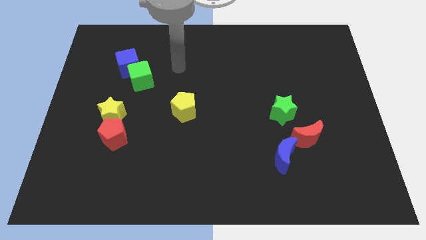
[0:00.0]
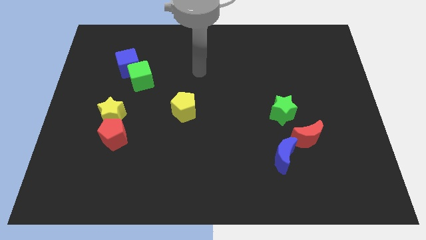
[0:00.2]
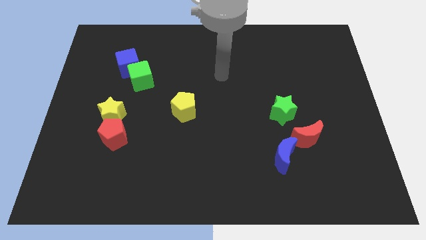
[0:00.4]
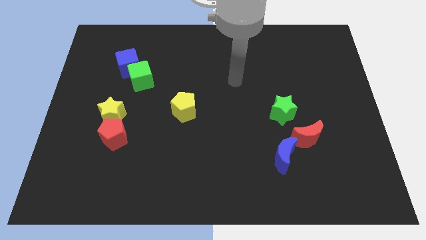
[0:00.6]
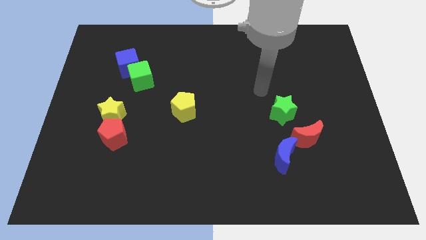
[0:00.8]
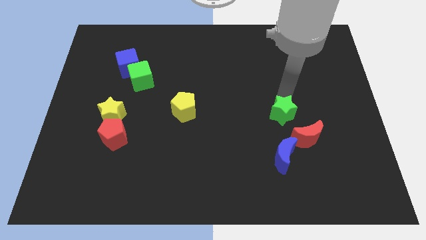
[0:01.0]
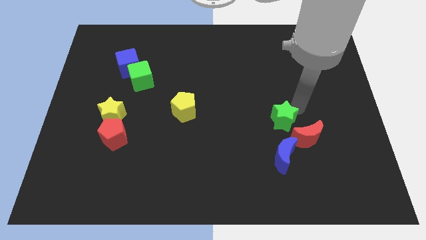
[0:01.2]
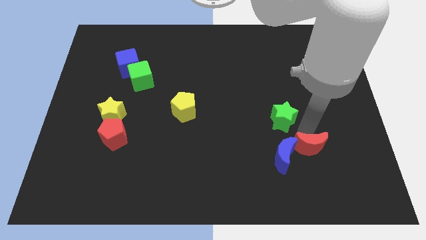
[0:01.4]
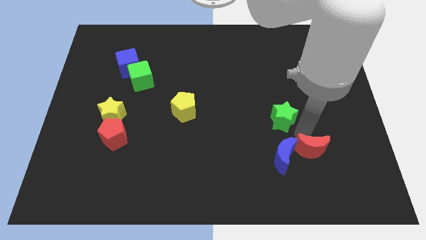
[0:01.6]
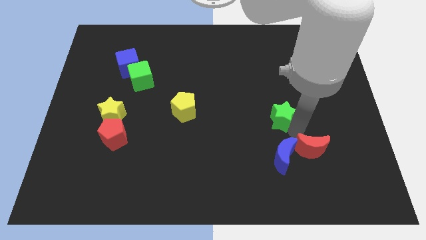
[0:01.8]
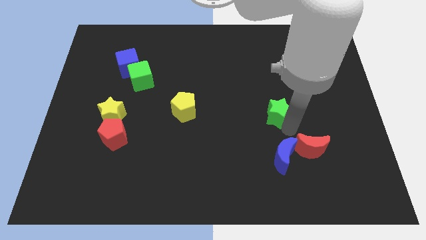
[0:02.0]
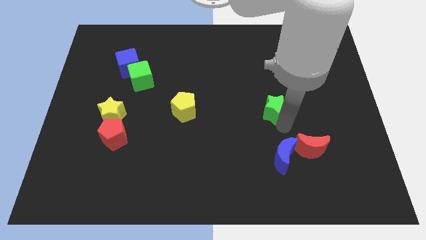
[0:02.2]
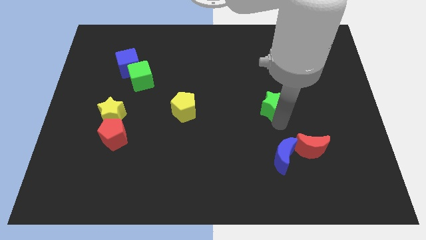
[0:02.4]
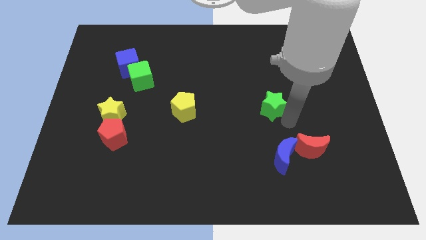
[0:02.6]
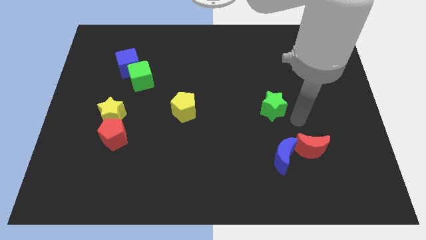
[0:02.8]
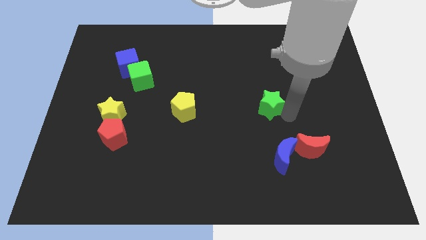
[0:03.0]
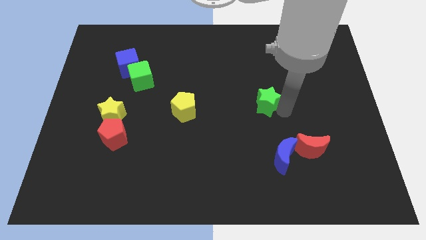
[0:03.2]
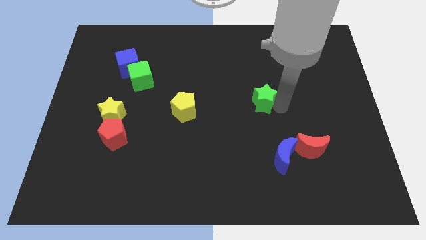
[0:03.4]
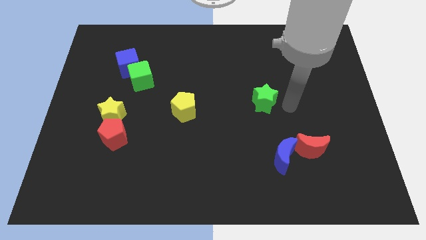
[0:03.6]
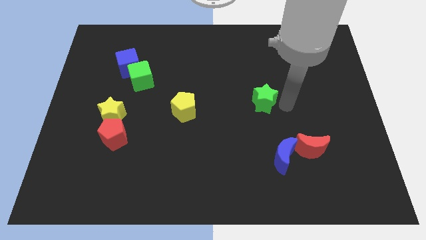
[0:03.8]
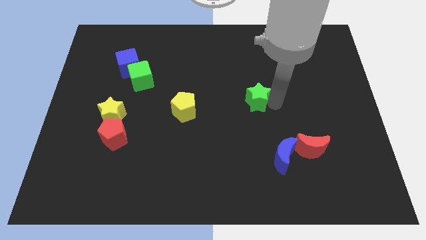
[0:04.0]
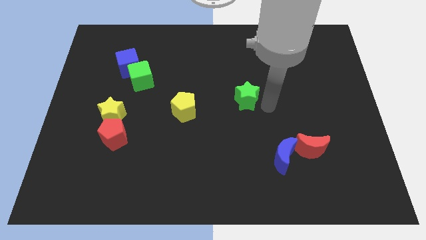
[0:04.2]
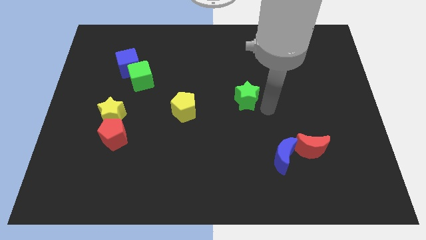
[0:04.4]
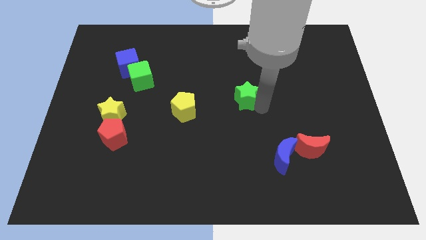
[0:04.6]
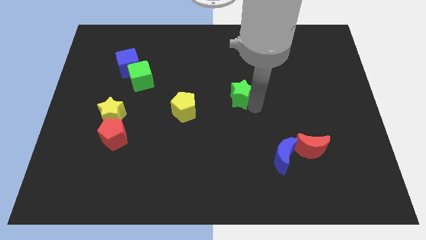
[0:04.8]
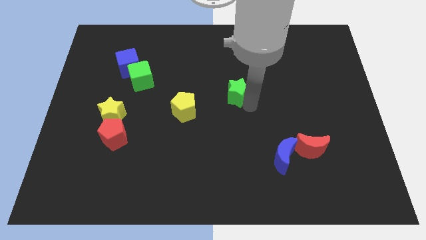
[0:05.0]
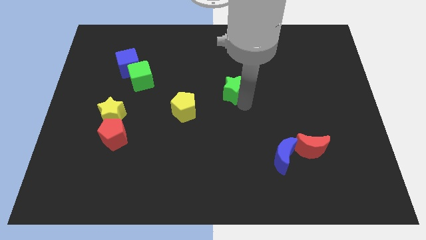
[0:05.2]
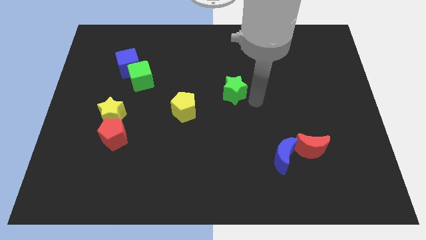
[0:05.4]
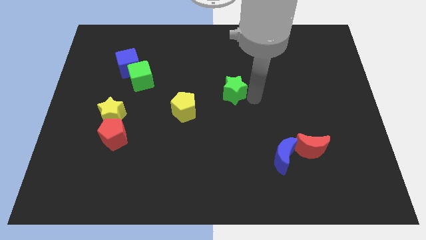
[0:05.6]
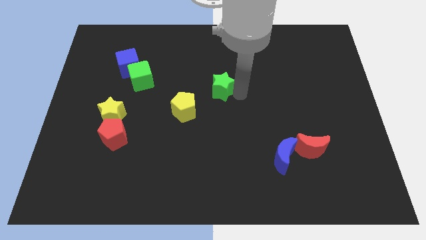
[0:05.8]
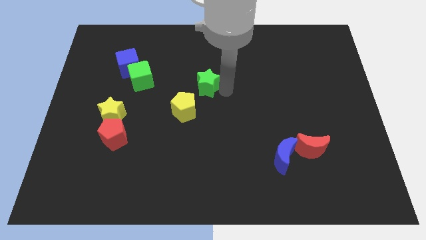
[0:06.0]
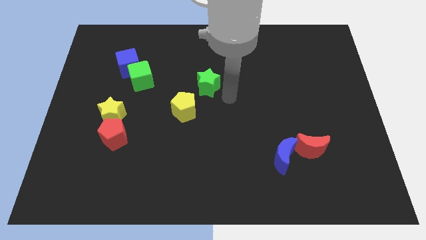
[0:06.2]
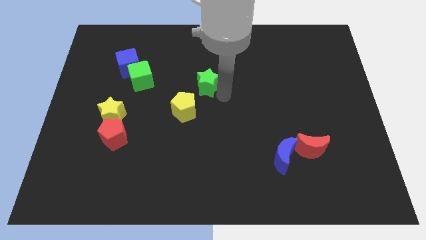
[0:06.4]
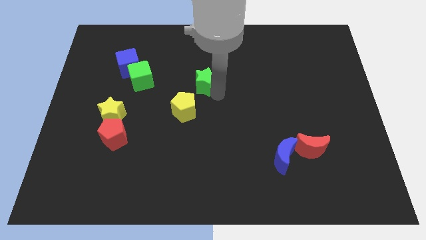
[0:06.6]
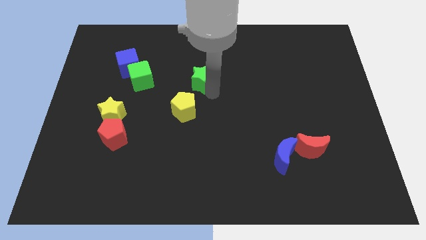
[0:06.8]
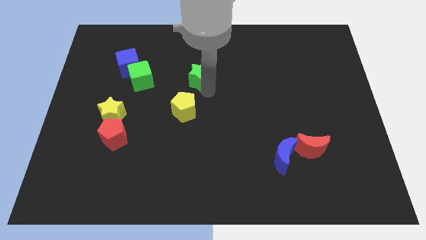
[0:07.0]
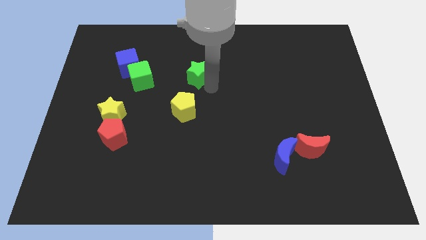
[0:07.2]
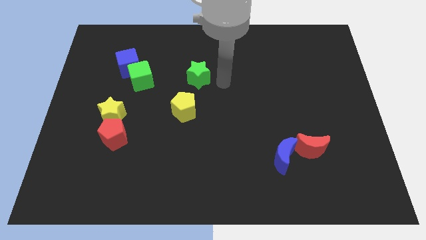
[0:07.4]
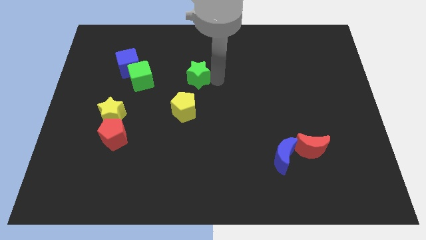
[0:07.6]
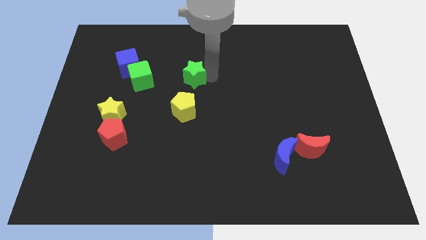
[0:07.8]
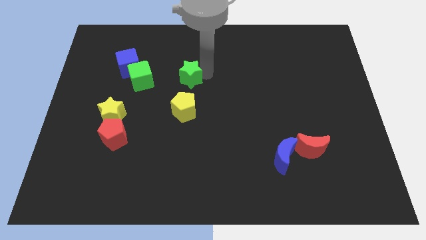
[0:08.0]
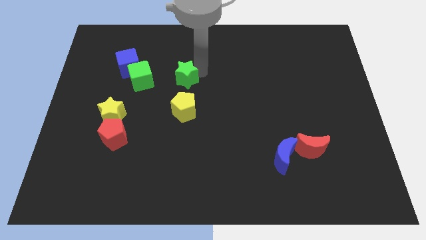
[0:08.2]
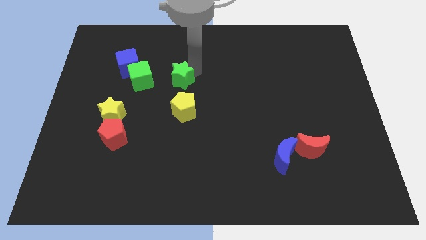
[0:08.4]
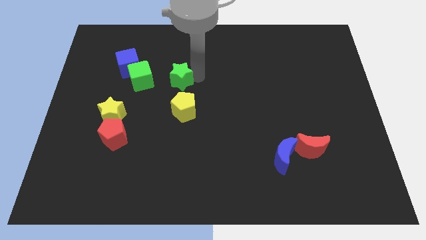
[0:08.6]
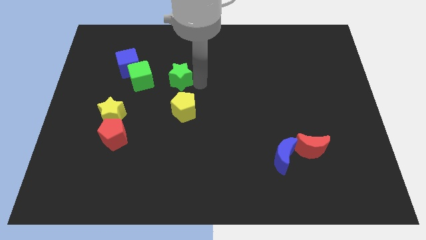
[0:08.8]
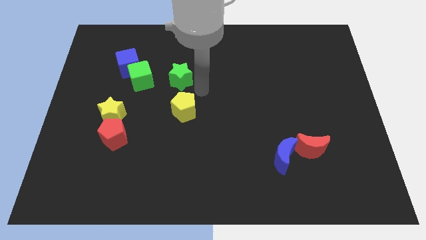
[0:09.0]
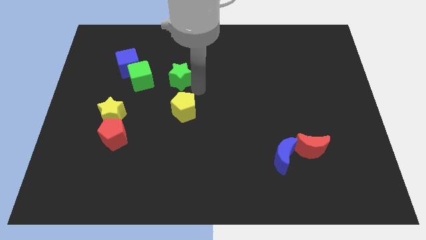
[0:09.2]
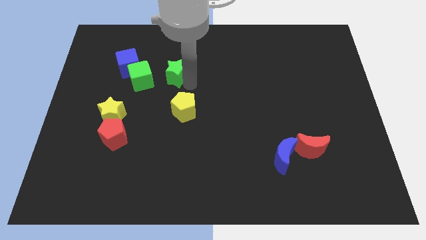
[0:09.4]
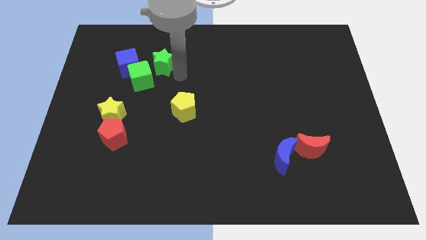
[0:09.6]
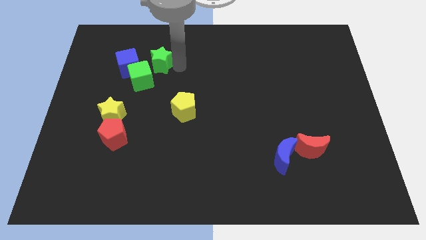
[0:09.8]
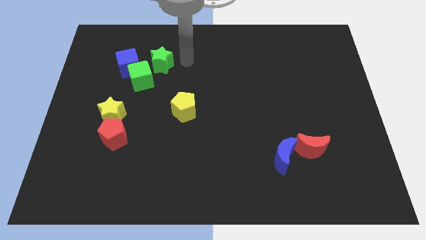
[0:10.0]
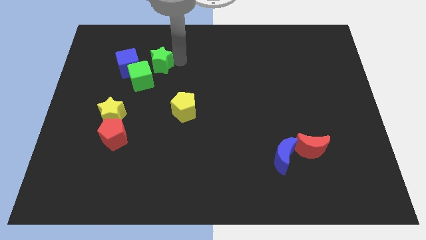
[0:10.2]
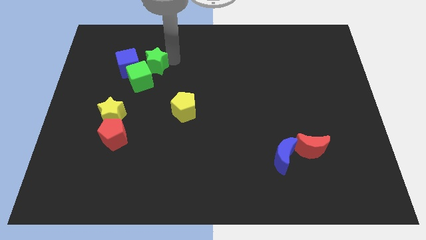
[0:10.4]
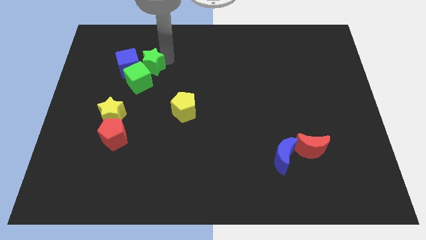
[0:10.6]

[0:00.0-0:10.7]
put the green star next to the blue cube

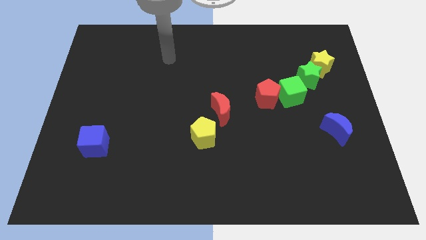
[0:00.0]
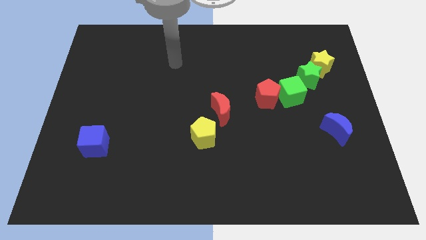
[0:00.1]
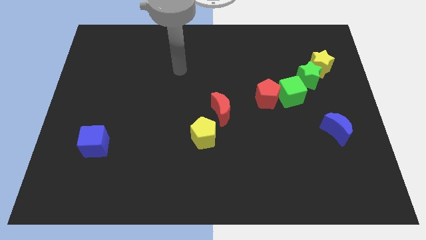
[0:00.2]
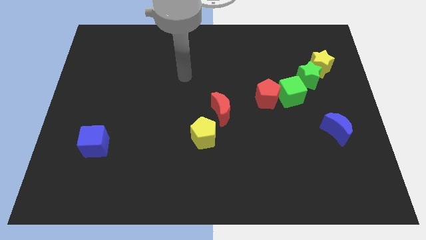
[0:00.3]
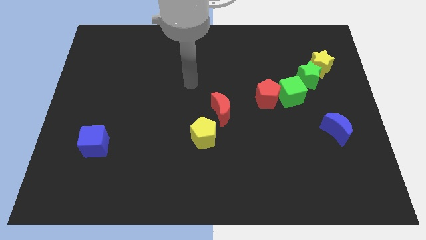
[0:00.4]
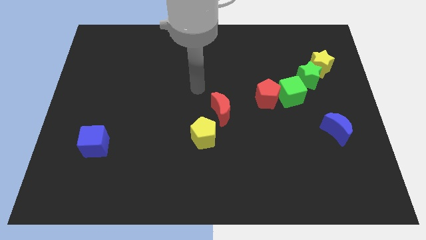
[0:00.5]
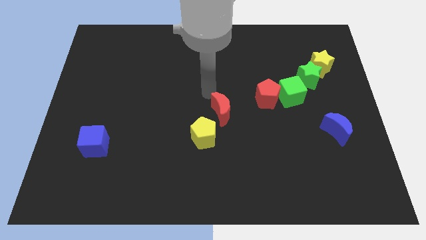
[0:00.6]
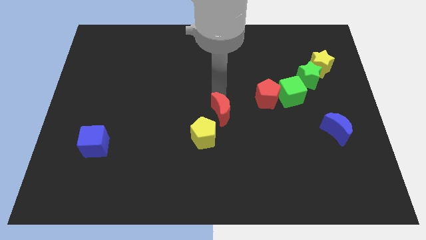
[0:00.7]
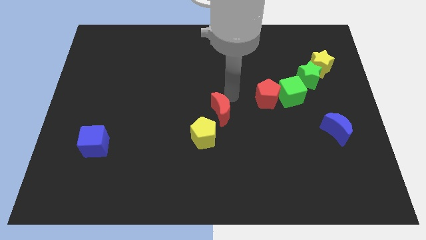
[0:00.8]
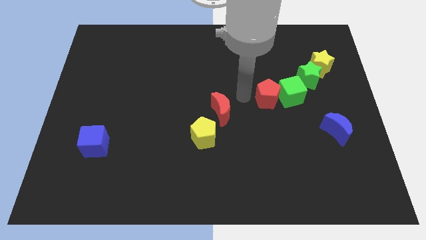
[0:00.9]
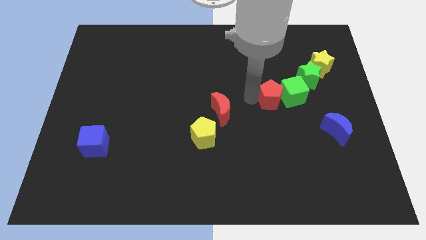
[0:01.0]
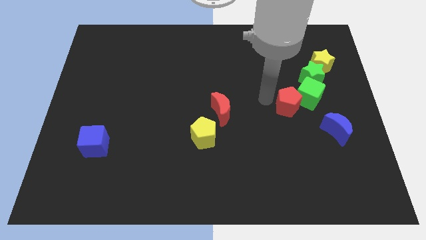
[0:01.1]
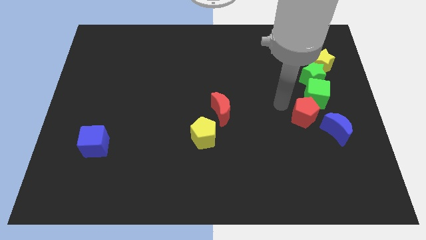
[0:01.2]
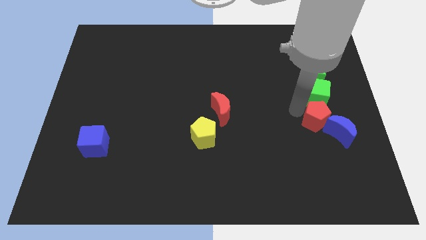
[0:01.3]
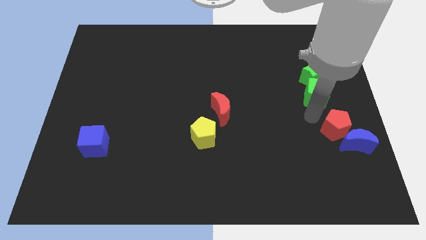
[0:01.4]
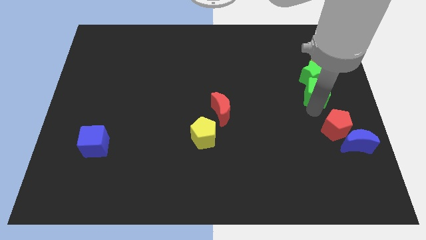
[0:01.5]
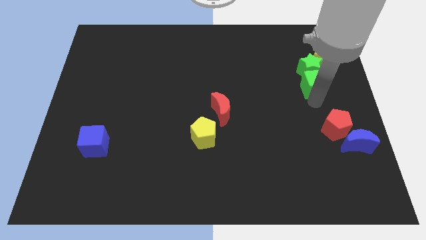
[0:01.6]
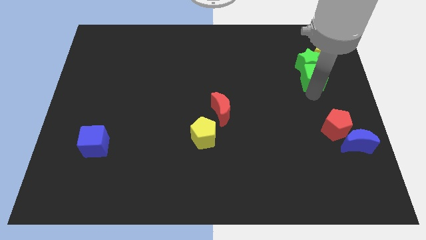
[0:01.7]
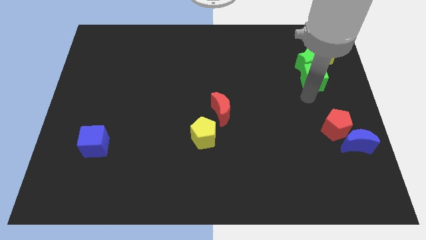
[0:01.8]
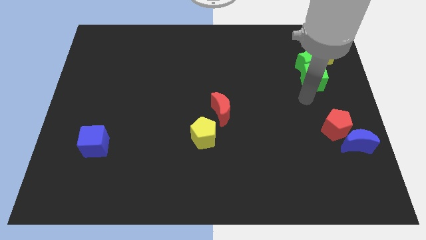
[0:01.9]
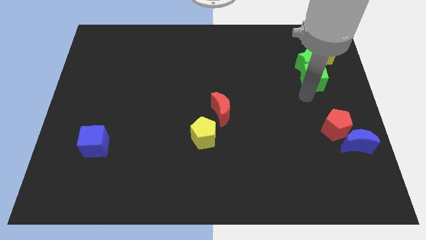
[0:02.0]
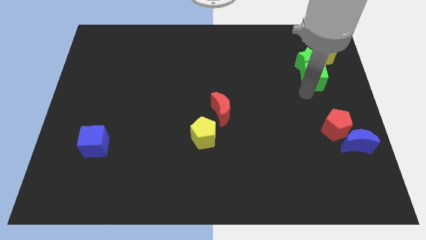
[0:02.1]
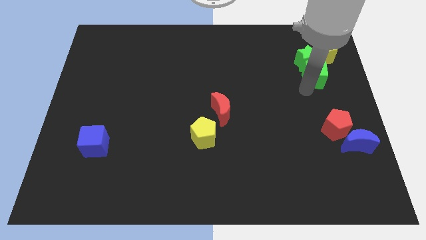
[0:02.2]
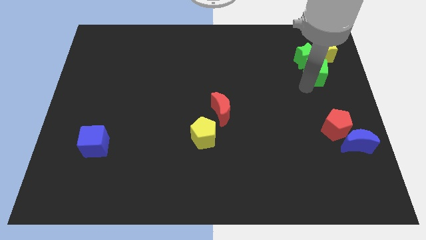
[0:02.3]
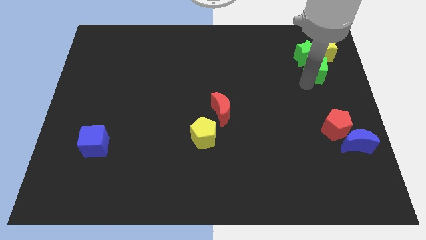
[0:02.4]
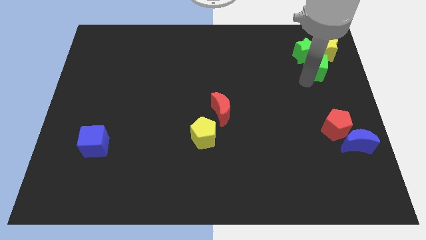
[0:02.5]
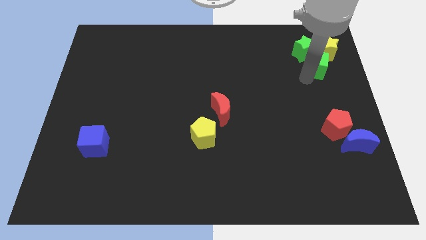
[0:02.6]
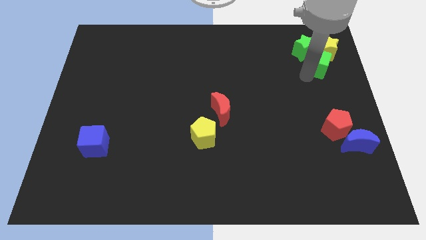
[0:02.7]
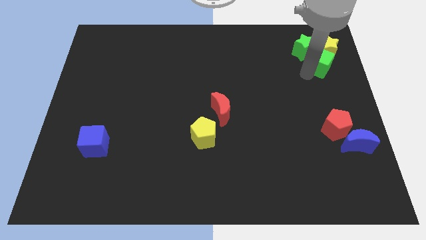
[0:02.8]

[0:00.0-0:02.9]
push the green cube next to the yellow star
